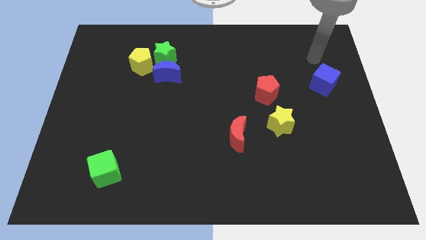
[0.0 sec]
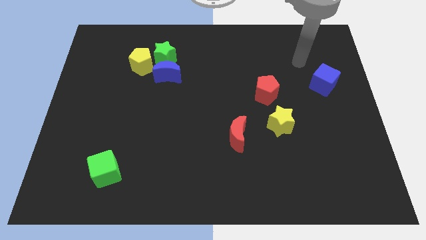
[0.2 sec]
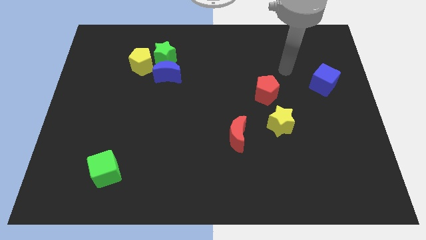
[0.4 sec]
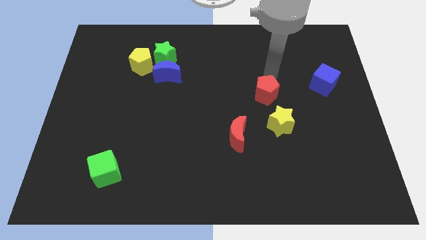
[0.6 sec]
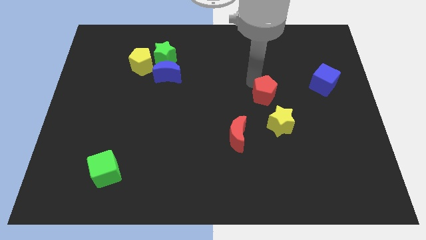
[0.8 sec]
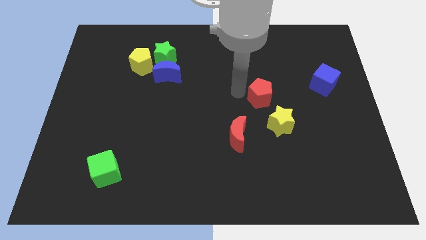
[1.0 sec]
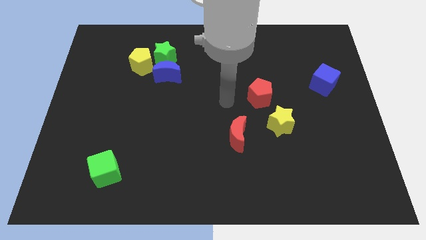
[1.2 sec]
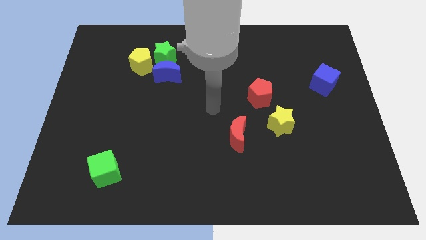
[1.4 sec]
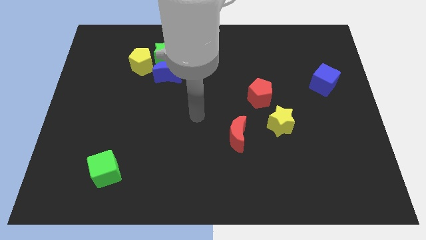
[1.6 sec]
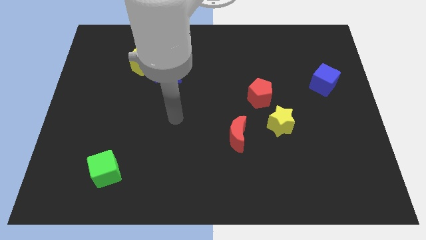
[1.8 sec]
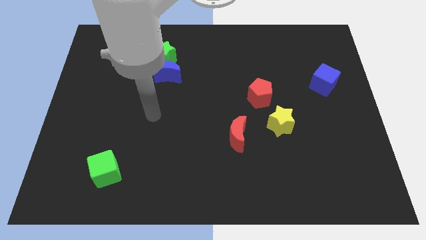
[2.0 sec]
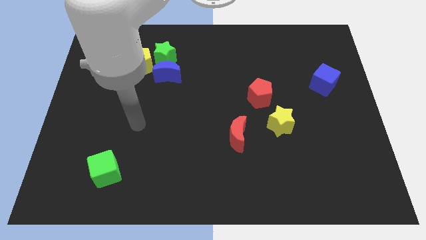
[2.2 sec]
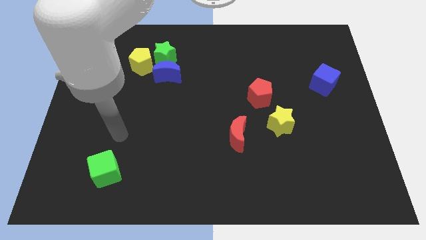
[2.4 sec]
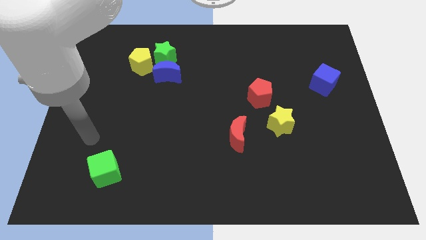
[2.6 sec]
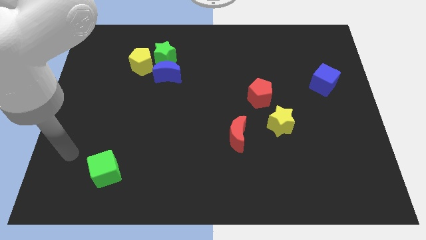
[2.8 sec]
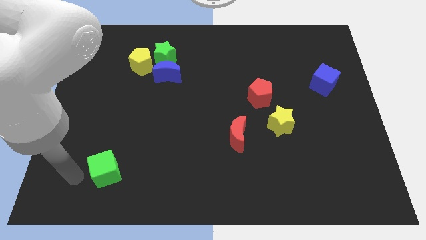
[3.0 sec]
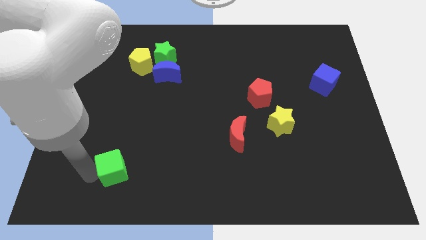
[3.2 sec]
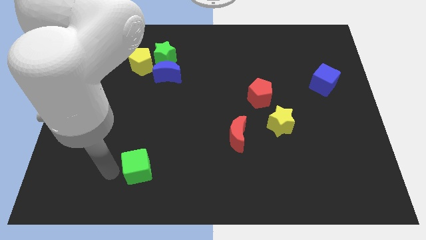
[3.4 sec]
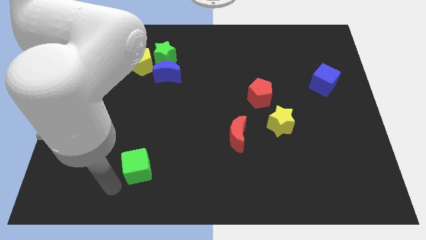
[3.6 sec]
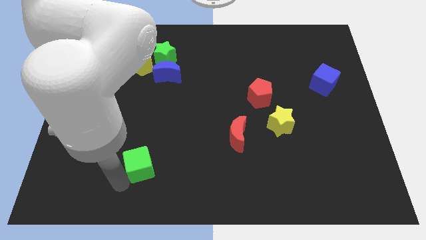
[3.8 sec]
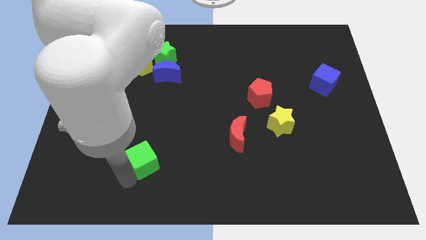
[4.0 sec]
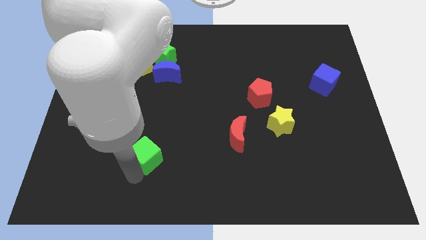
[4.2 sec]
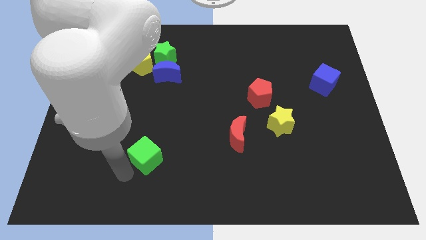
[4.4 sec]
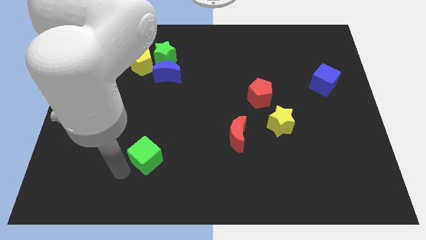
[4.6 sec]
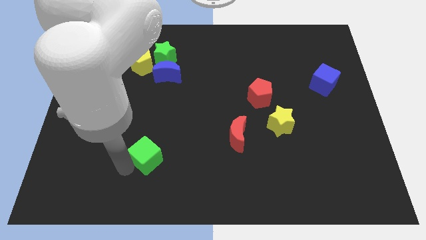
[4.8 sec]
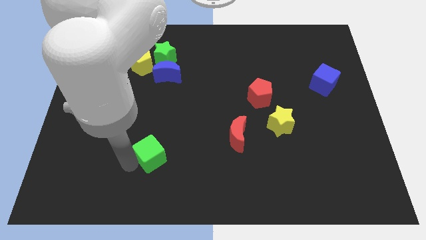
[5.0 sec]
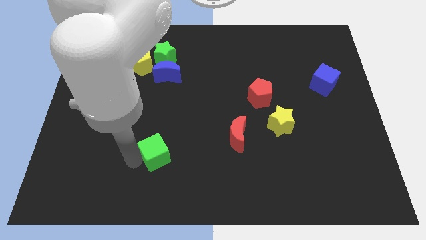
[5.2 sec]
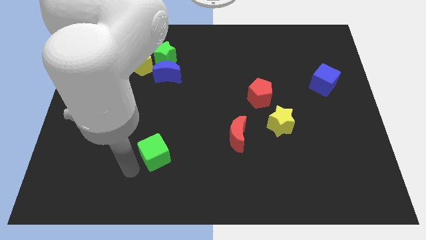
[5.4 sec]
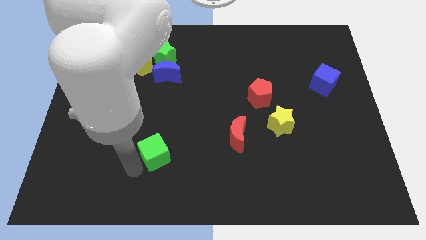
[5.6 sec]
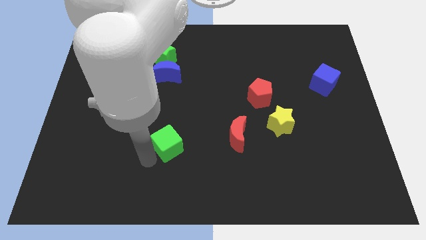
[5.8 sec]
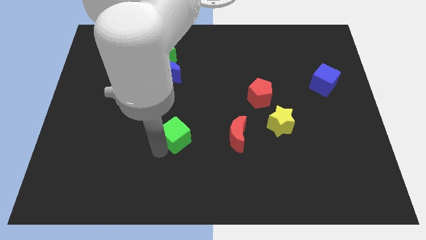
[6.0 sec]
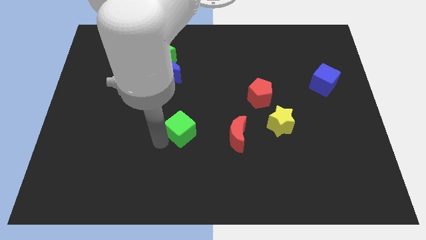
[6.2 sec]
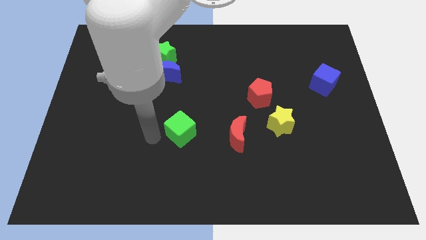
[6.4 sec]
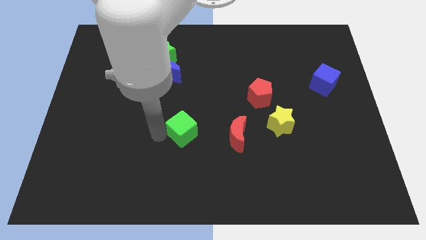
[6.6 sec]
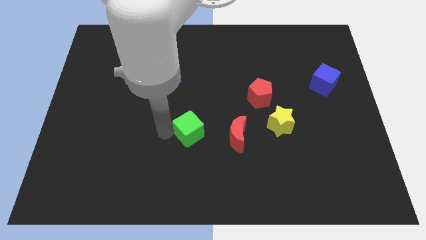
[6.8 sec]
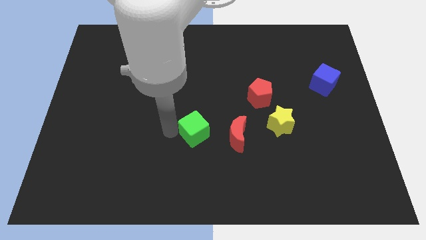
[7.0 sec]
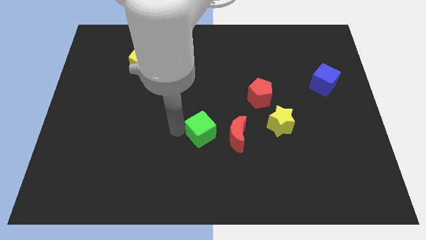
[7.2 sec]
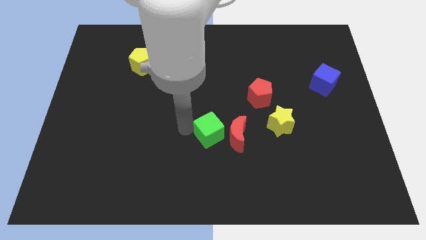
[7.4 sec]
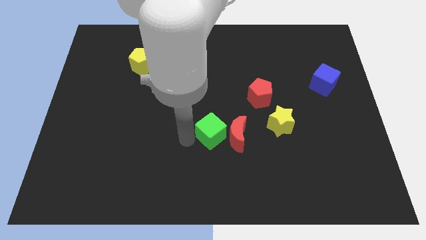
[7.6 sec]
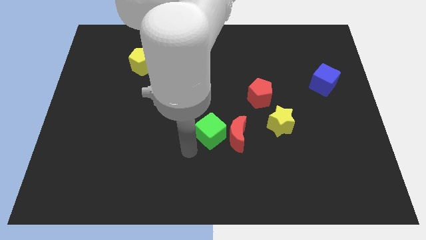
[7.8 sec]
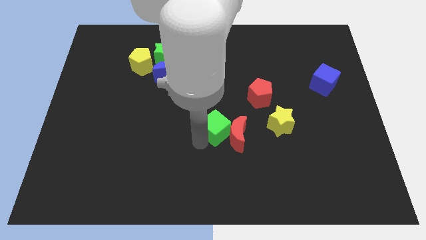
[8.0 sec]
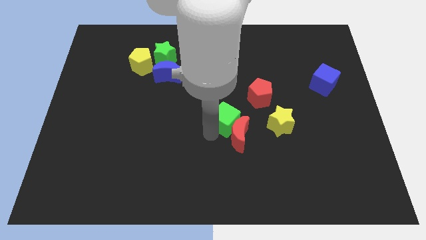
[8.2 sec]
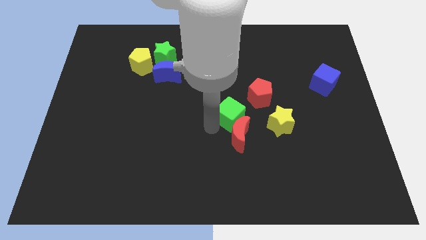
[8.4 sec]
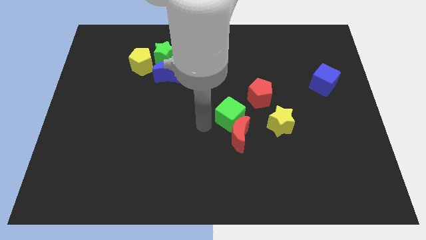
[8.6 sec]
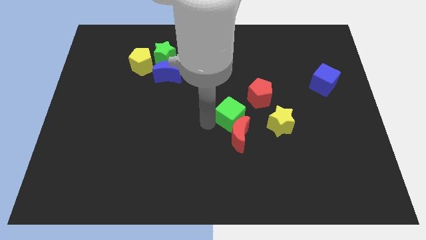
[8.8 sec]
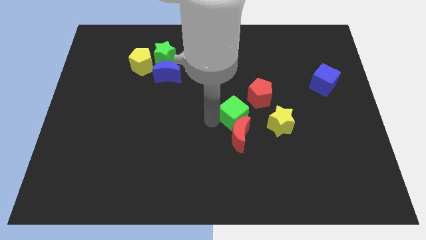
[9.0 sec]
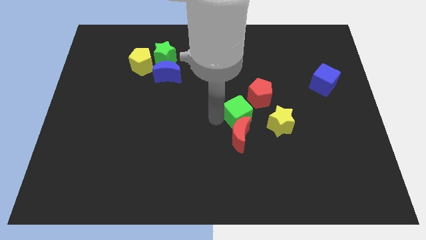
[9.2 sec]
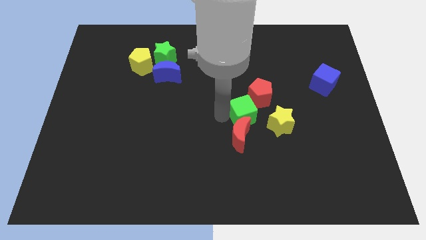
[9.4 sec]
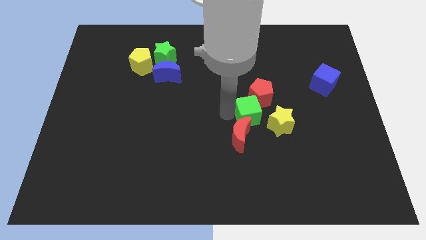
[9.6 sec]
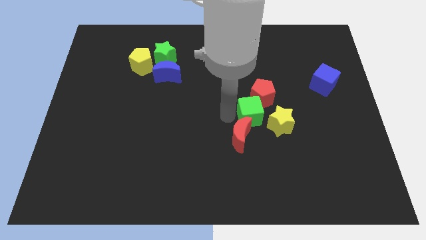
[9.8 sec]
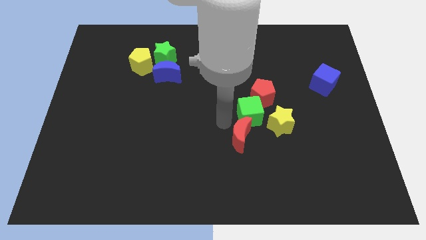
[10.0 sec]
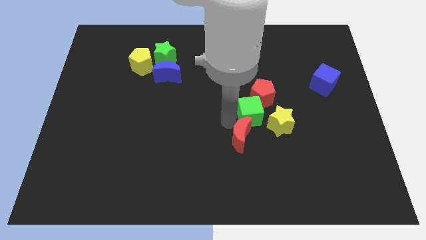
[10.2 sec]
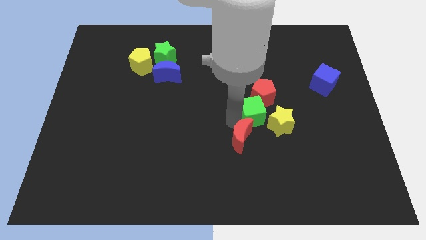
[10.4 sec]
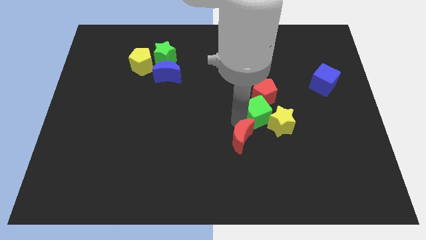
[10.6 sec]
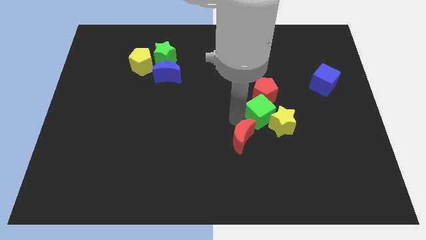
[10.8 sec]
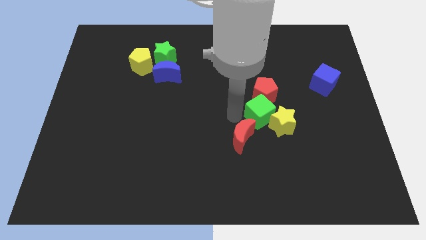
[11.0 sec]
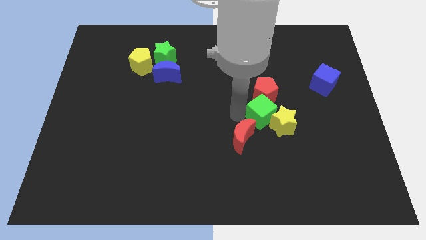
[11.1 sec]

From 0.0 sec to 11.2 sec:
push the green cube to the bottom right of the red pentagon

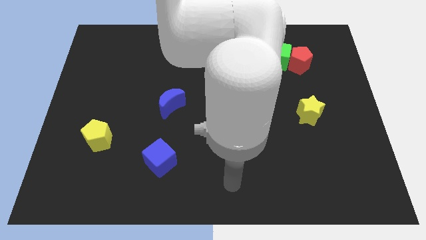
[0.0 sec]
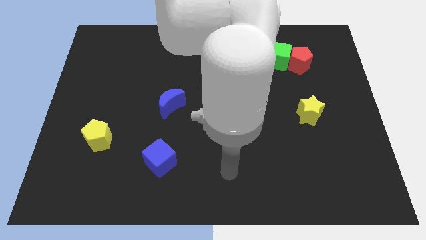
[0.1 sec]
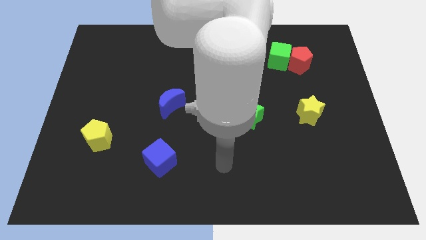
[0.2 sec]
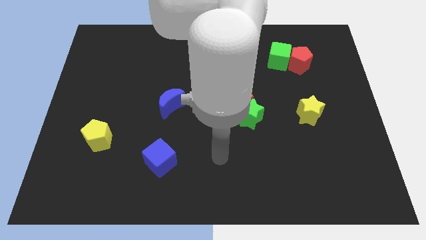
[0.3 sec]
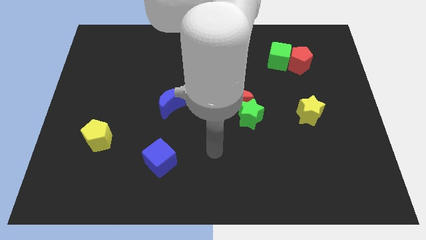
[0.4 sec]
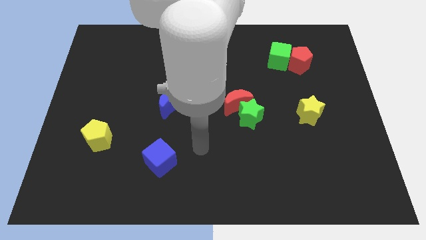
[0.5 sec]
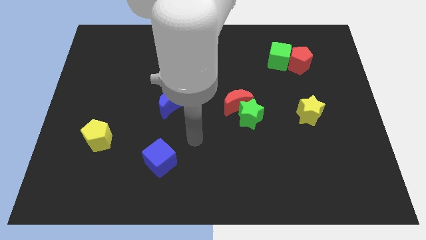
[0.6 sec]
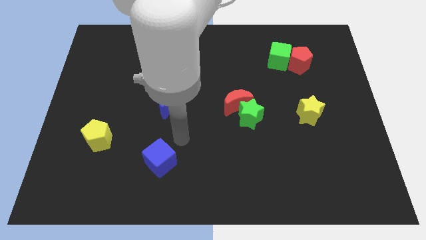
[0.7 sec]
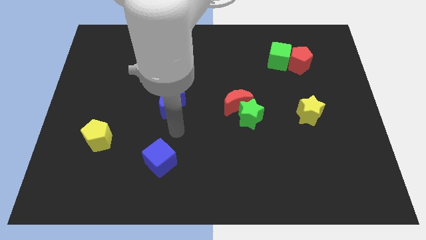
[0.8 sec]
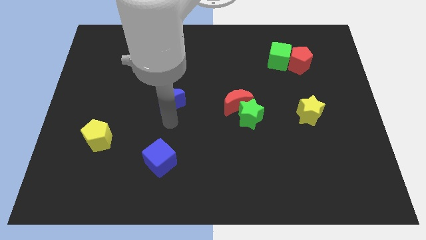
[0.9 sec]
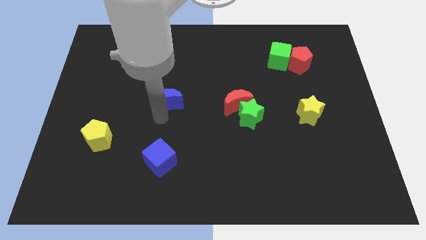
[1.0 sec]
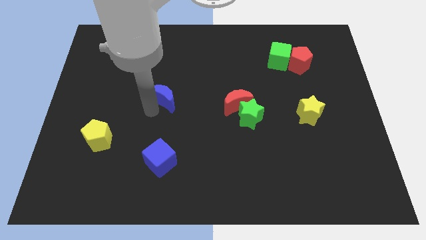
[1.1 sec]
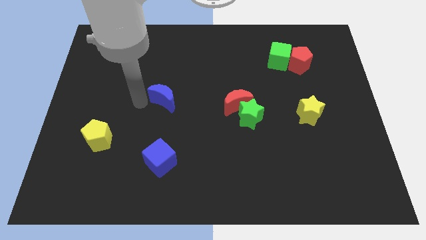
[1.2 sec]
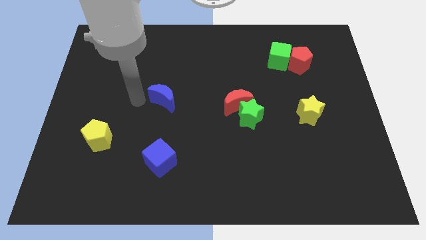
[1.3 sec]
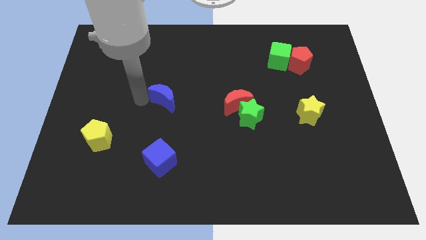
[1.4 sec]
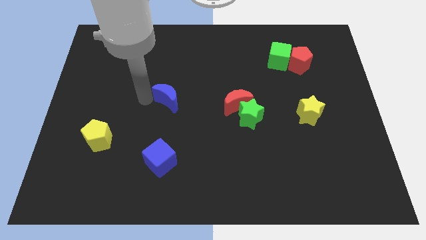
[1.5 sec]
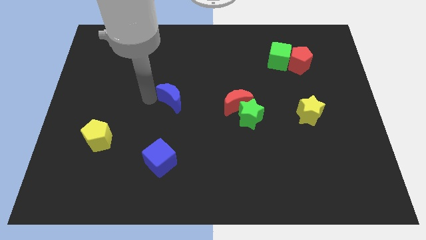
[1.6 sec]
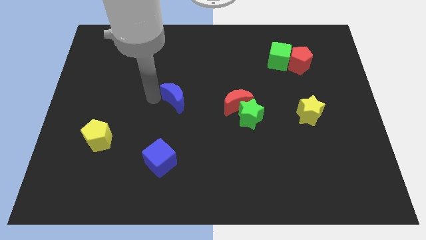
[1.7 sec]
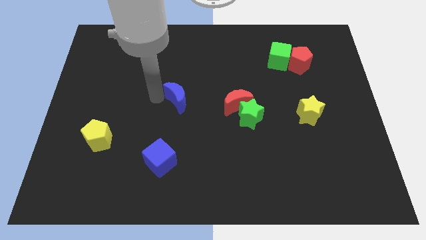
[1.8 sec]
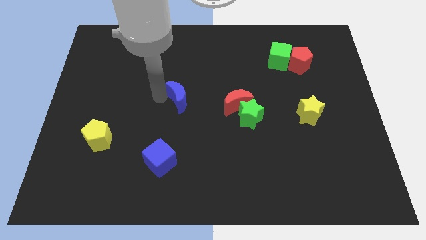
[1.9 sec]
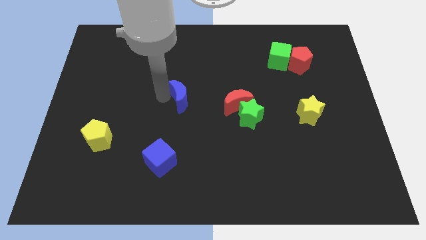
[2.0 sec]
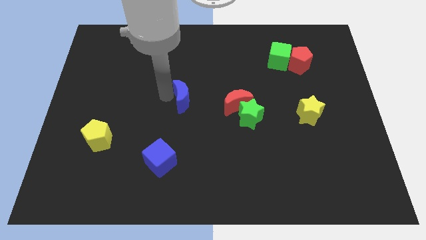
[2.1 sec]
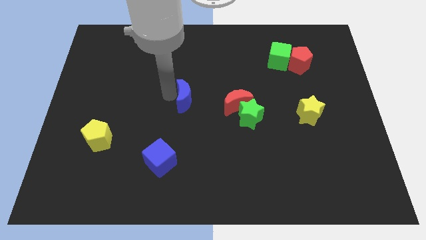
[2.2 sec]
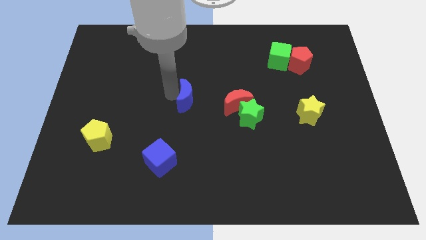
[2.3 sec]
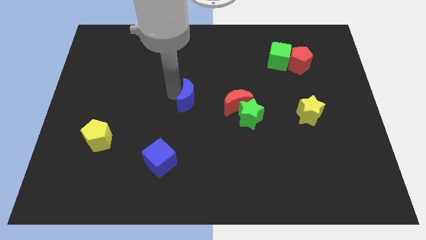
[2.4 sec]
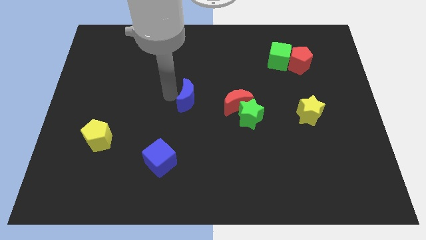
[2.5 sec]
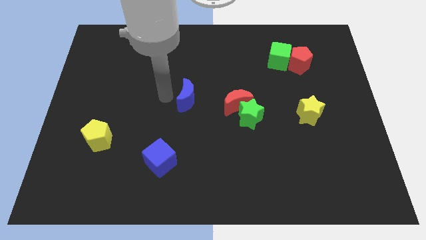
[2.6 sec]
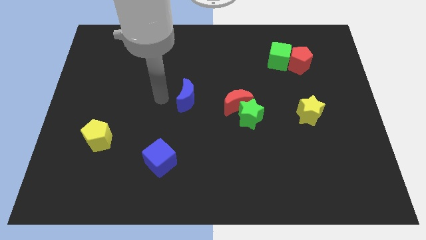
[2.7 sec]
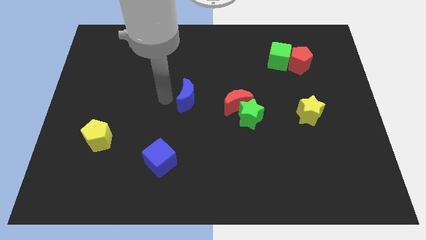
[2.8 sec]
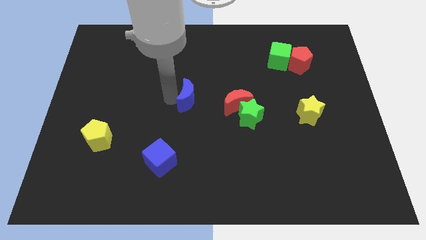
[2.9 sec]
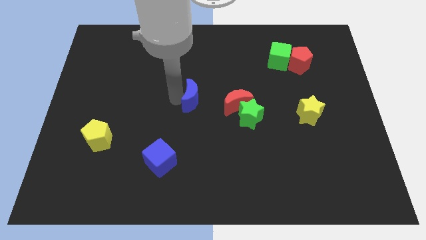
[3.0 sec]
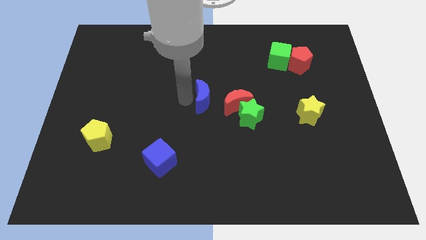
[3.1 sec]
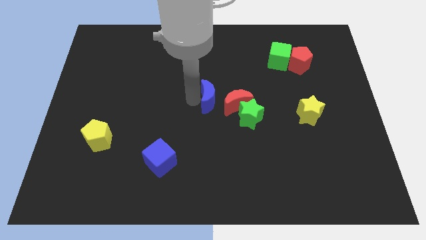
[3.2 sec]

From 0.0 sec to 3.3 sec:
put the blue moon diagonally up and to the left of the green star
